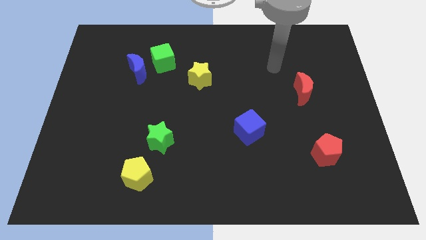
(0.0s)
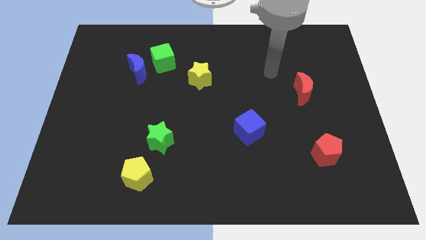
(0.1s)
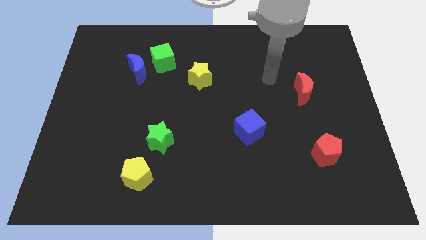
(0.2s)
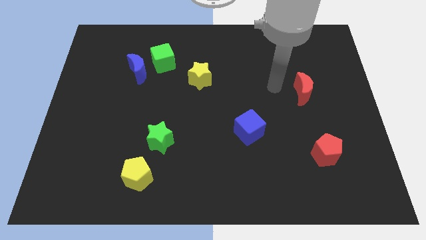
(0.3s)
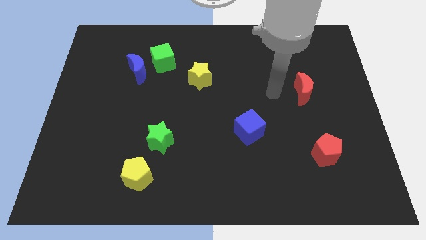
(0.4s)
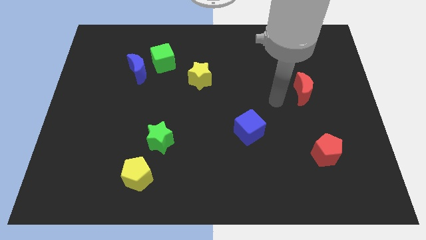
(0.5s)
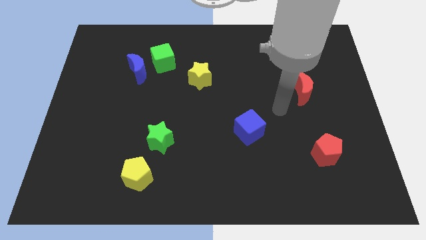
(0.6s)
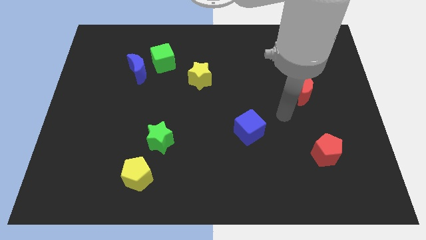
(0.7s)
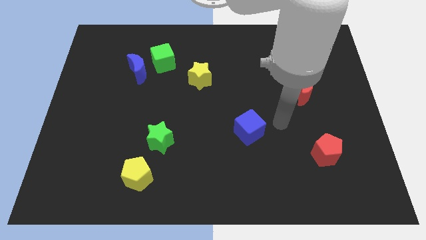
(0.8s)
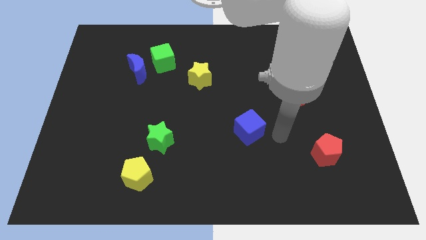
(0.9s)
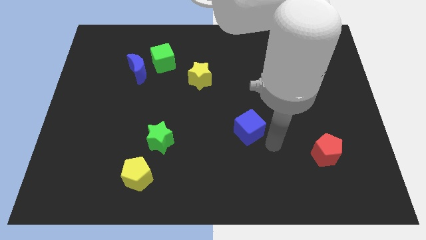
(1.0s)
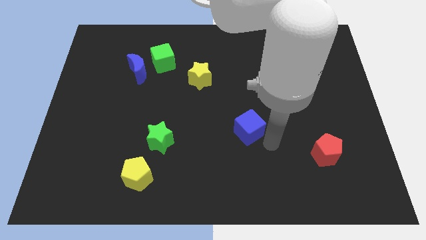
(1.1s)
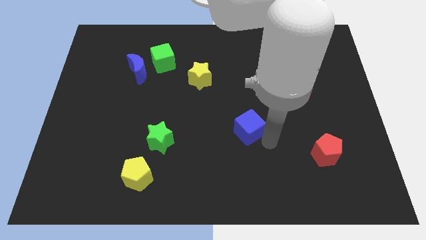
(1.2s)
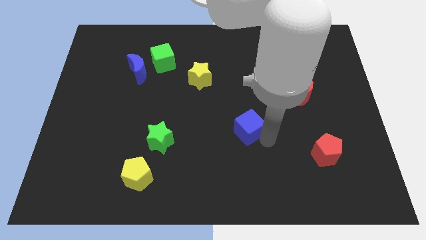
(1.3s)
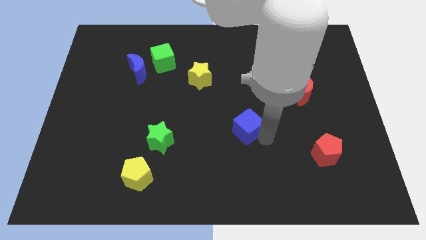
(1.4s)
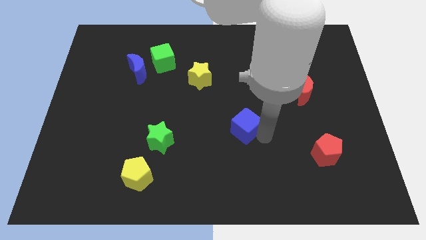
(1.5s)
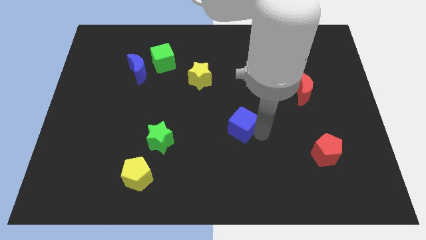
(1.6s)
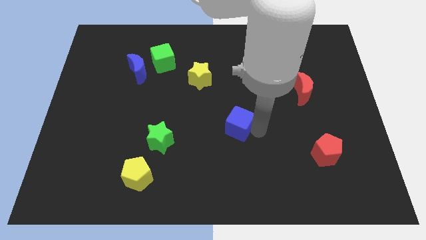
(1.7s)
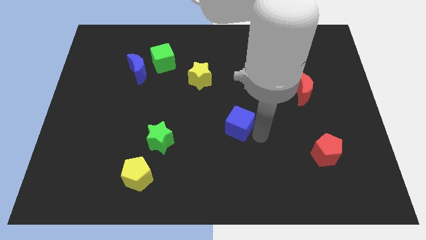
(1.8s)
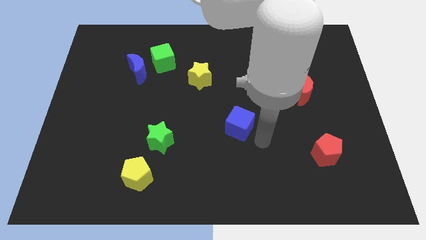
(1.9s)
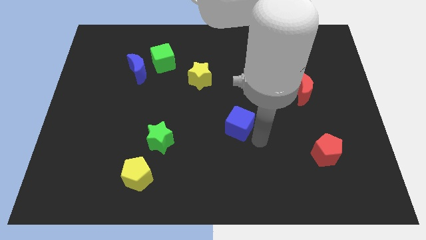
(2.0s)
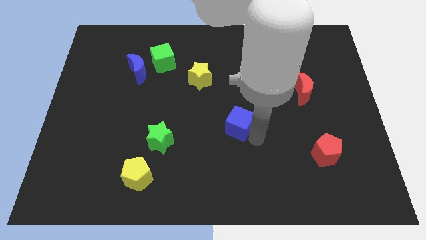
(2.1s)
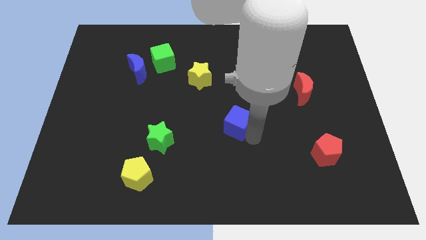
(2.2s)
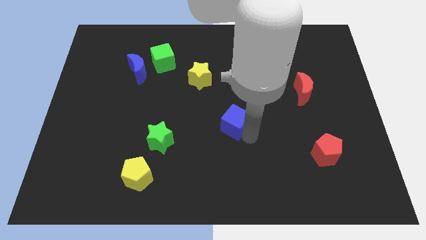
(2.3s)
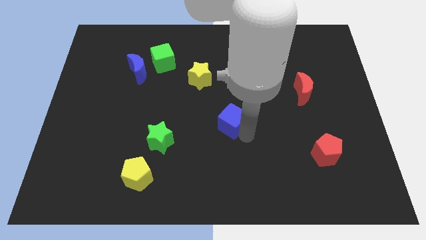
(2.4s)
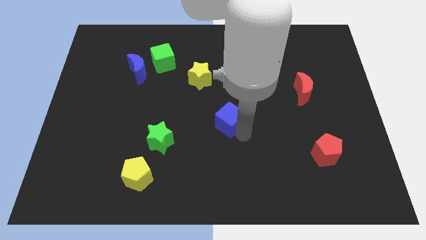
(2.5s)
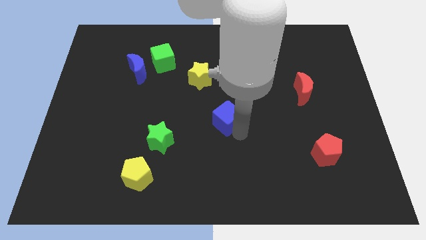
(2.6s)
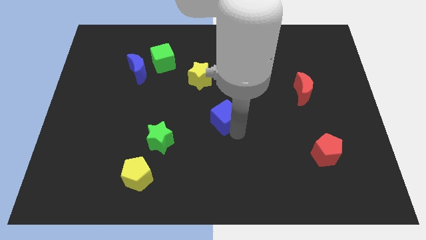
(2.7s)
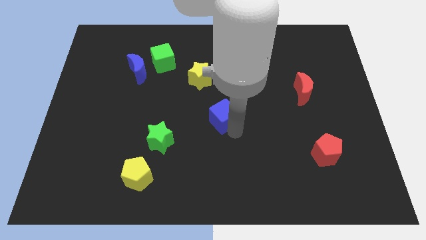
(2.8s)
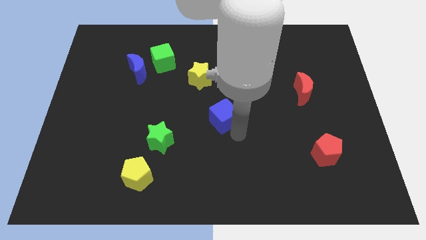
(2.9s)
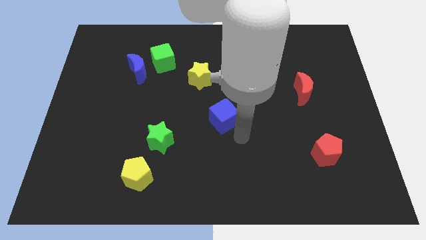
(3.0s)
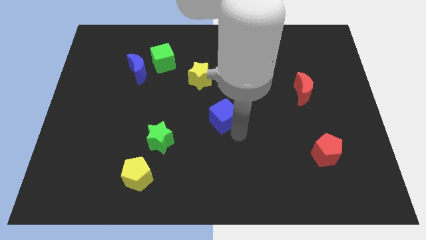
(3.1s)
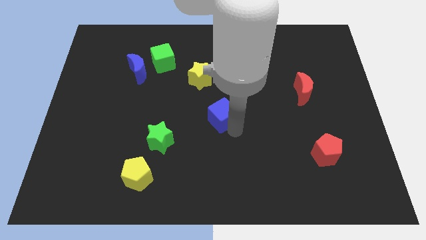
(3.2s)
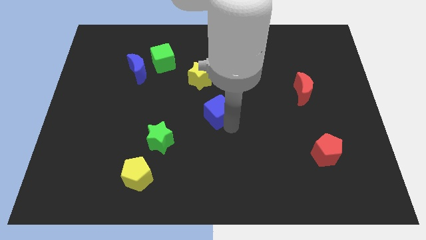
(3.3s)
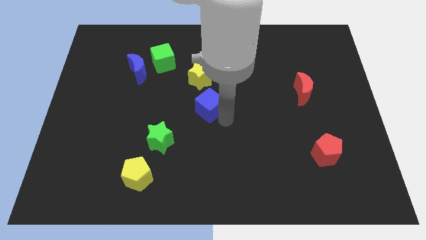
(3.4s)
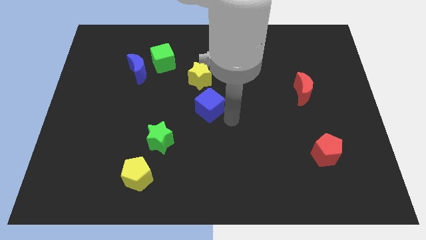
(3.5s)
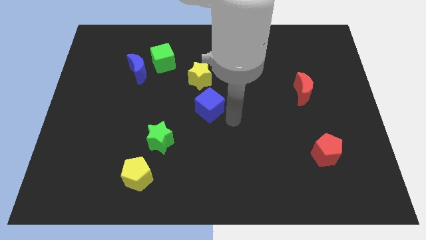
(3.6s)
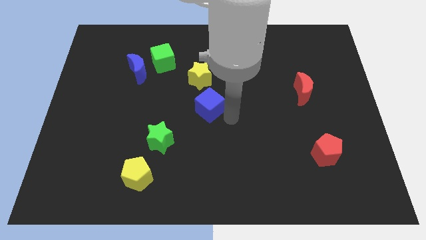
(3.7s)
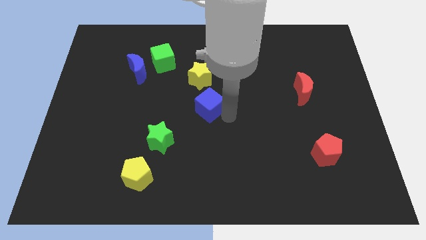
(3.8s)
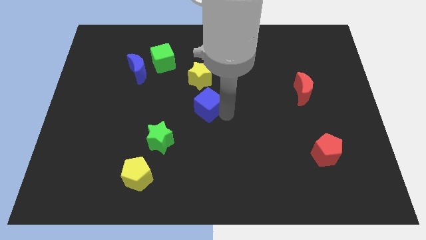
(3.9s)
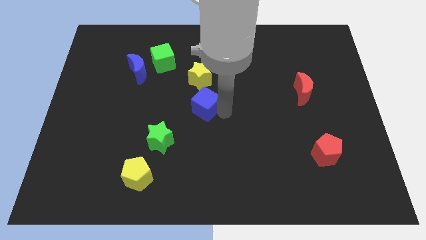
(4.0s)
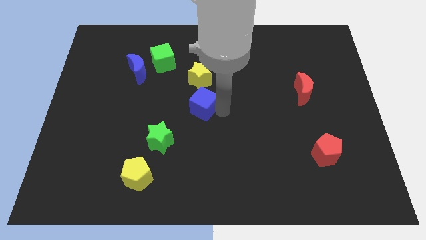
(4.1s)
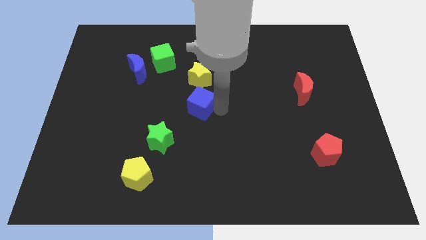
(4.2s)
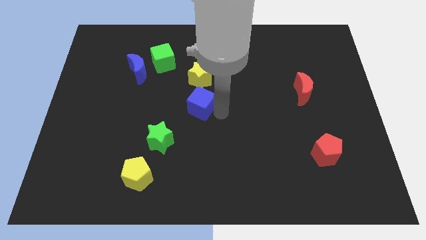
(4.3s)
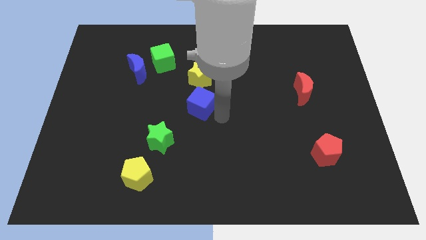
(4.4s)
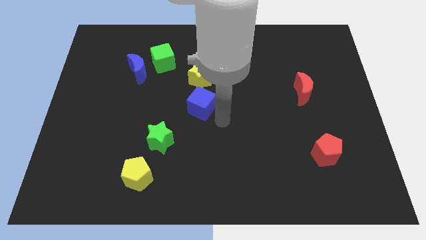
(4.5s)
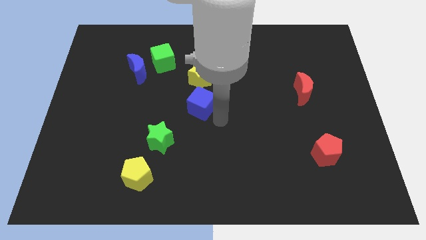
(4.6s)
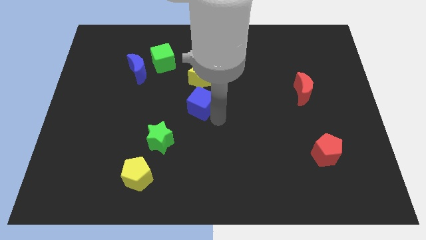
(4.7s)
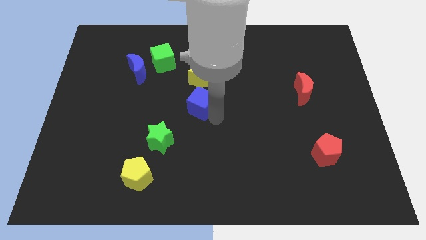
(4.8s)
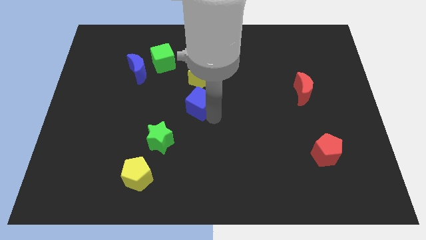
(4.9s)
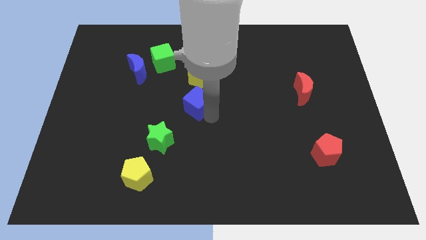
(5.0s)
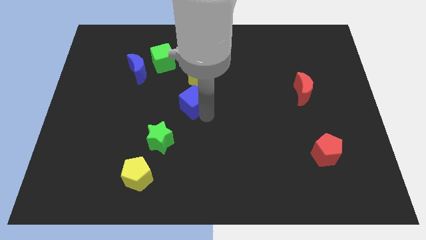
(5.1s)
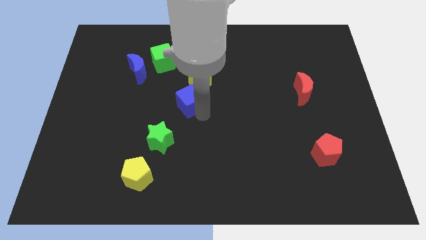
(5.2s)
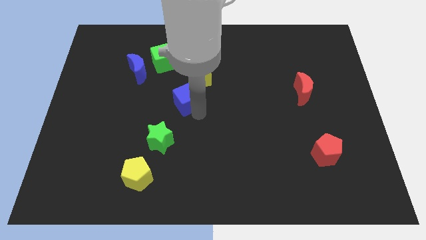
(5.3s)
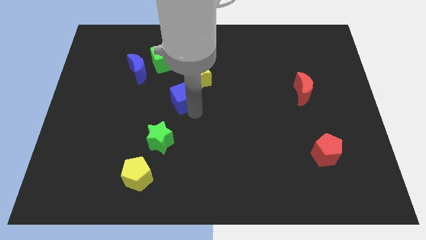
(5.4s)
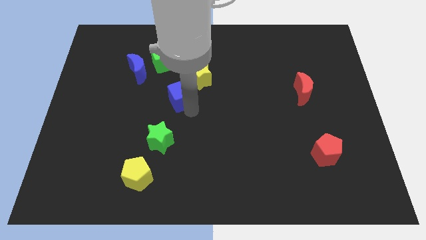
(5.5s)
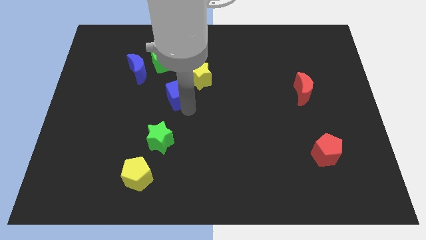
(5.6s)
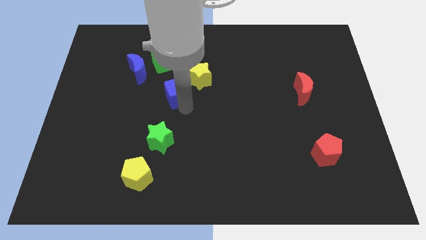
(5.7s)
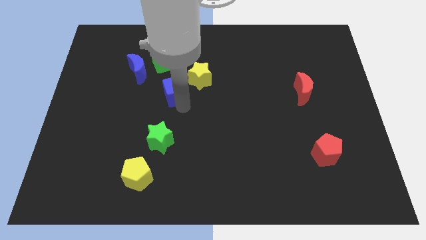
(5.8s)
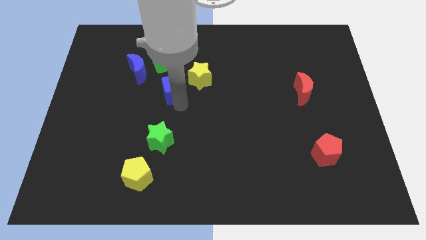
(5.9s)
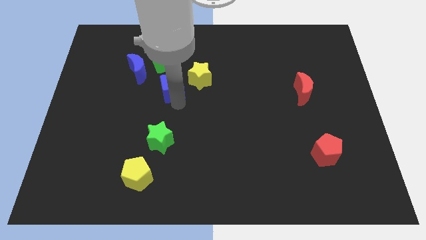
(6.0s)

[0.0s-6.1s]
slide the blue cube to the bottom right of the green cube

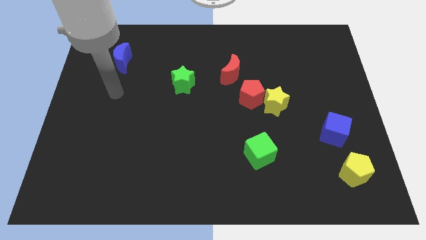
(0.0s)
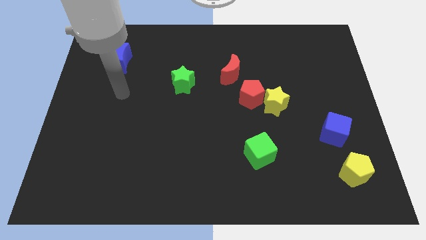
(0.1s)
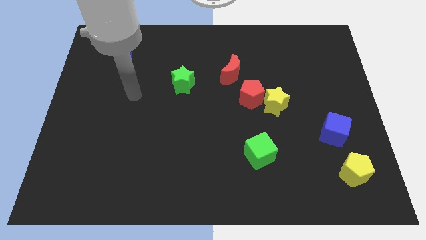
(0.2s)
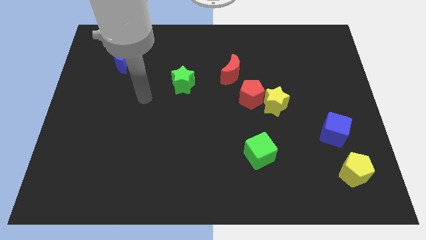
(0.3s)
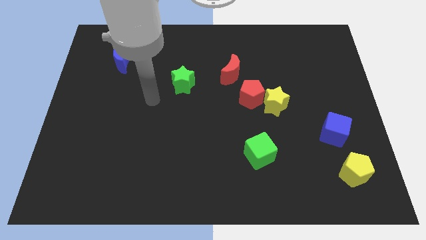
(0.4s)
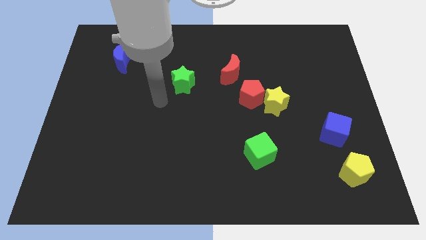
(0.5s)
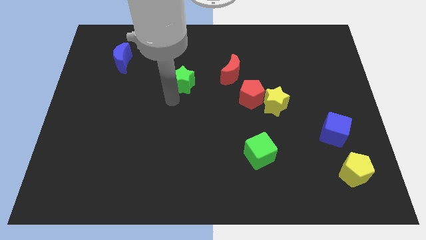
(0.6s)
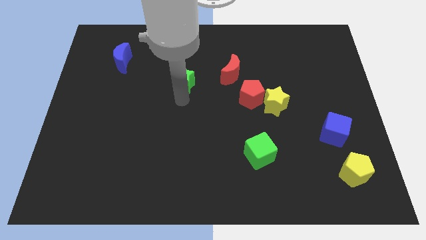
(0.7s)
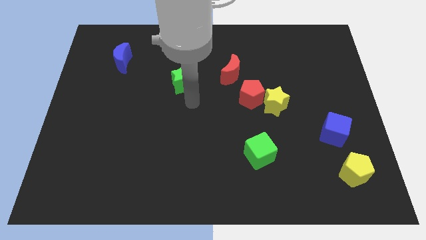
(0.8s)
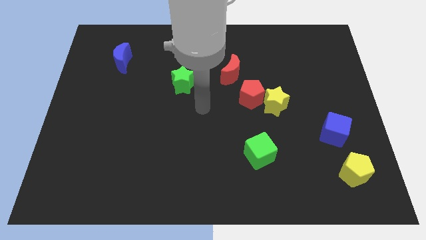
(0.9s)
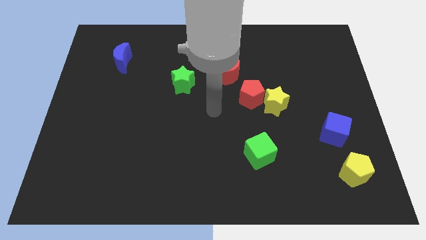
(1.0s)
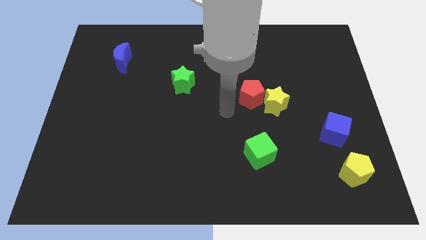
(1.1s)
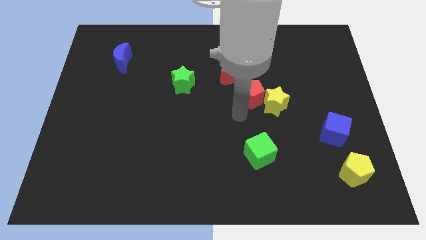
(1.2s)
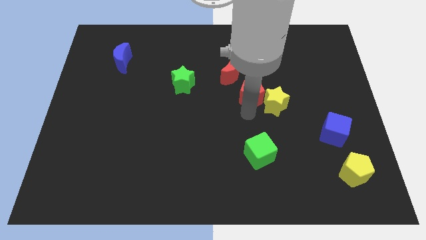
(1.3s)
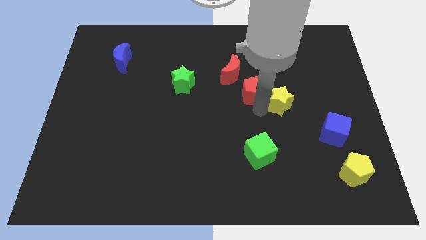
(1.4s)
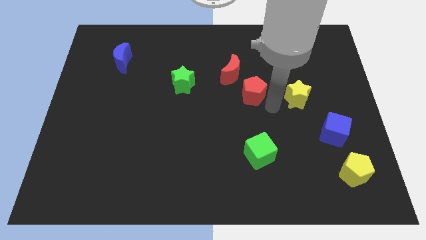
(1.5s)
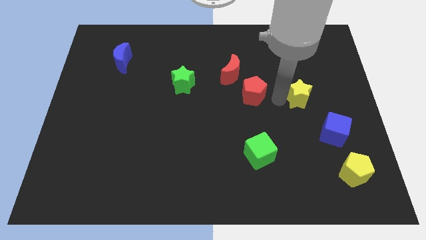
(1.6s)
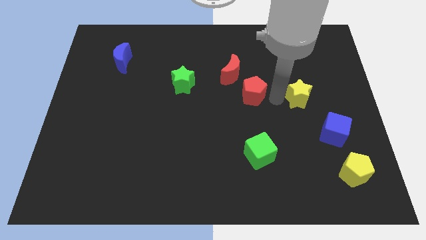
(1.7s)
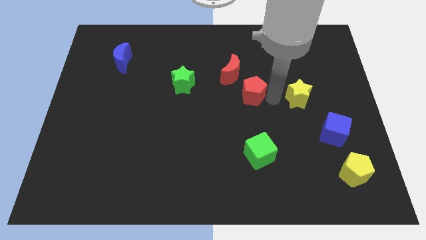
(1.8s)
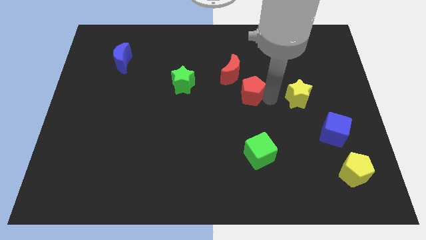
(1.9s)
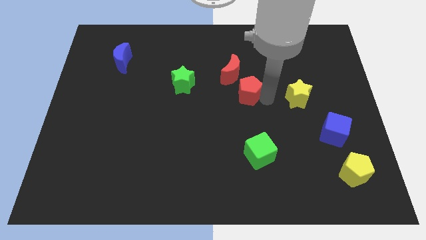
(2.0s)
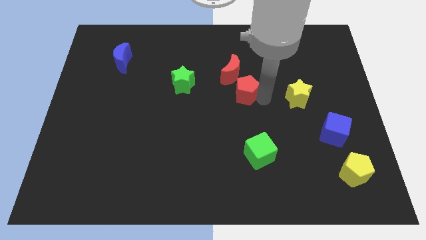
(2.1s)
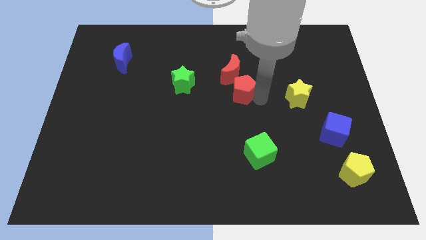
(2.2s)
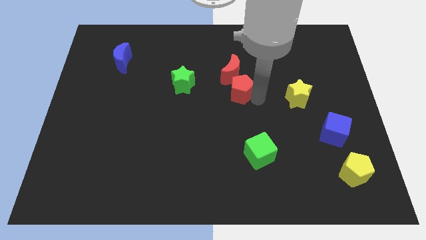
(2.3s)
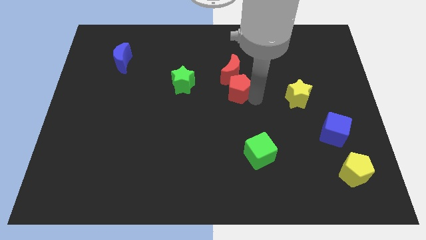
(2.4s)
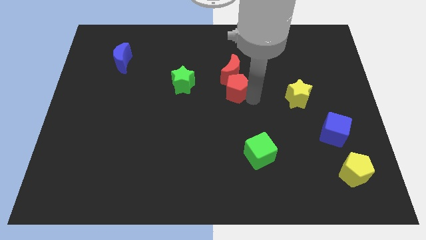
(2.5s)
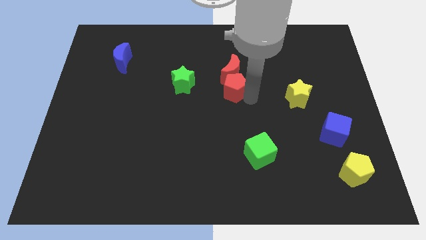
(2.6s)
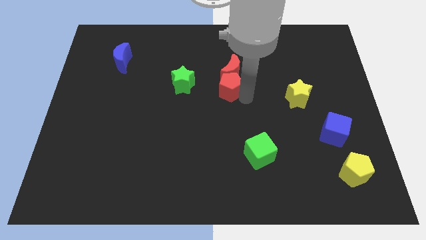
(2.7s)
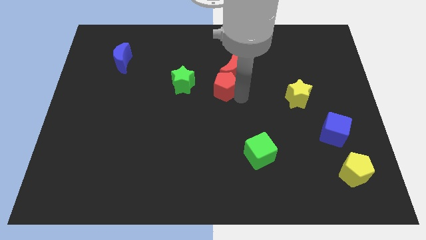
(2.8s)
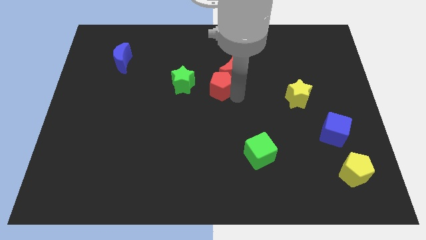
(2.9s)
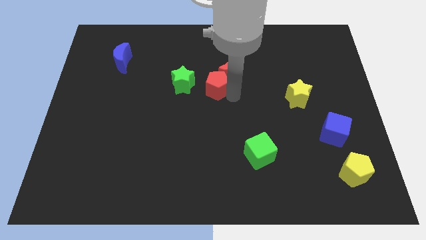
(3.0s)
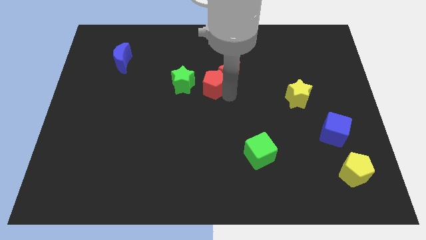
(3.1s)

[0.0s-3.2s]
push the red pentagon to the left of the red moon
